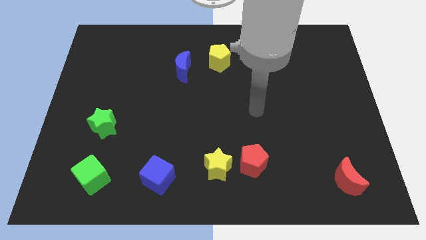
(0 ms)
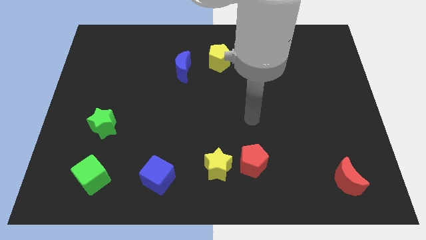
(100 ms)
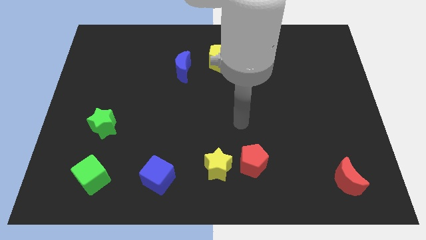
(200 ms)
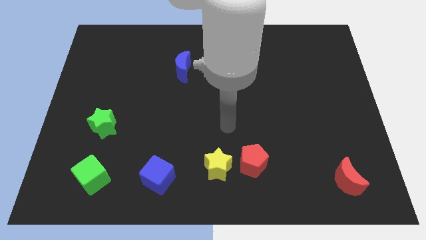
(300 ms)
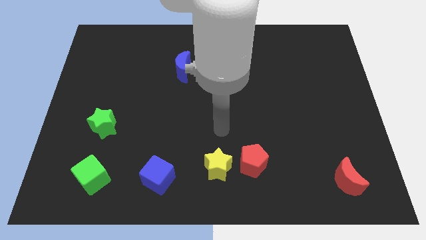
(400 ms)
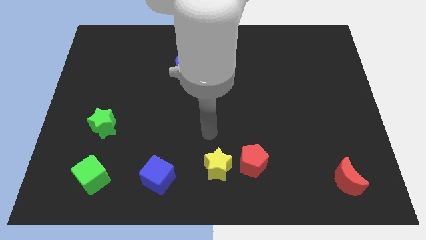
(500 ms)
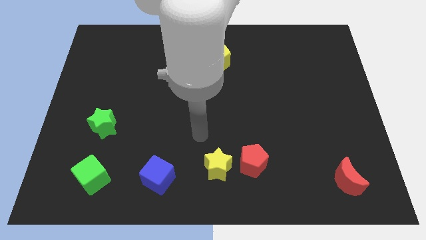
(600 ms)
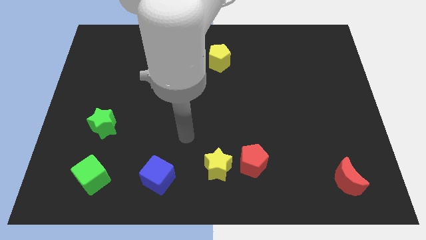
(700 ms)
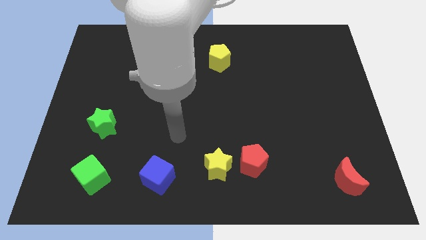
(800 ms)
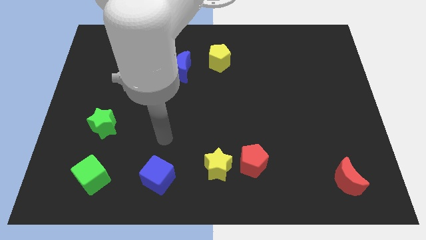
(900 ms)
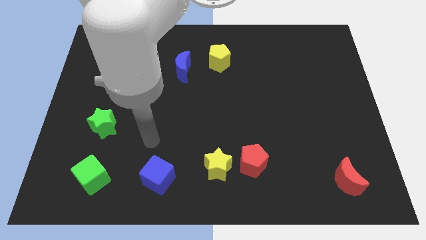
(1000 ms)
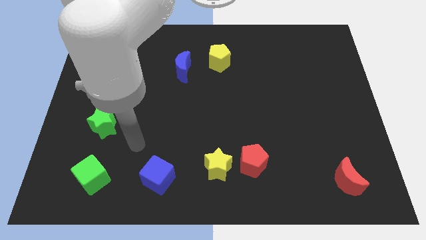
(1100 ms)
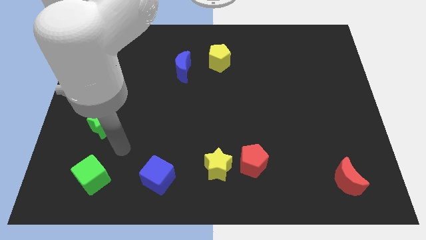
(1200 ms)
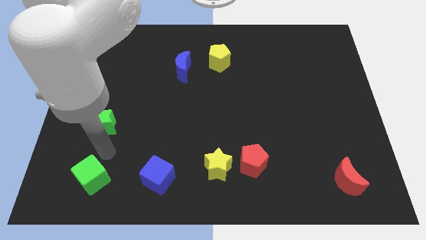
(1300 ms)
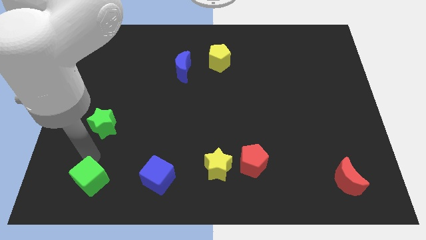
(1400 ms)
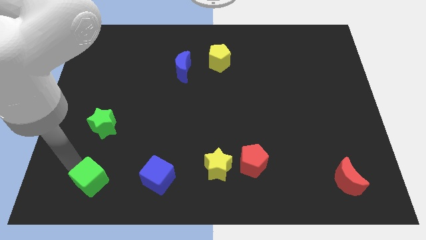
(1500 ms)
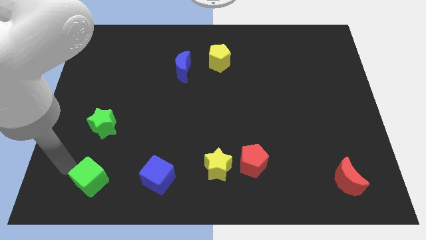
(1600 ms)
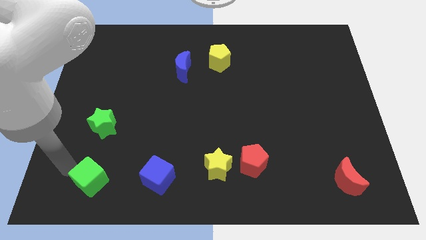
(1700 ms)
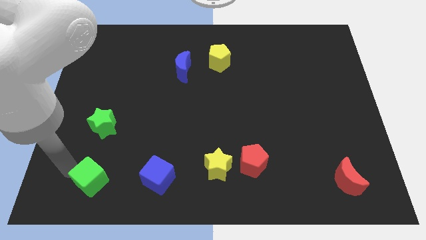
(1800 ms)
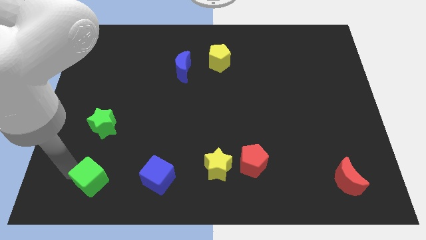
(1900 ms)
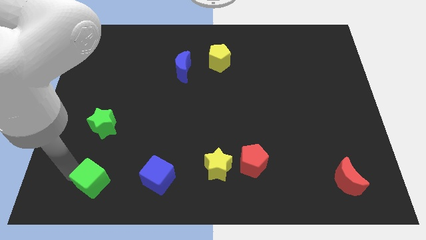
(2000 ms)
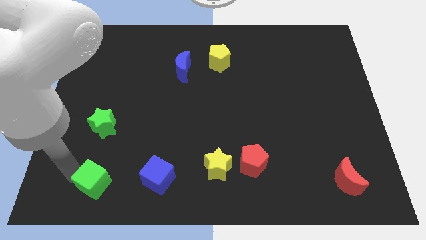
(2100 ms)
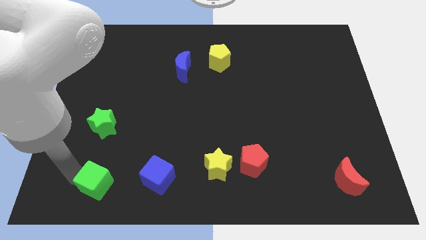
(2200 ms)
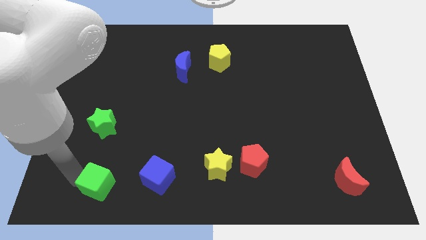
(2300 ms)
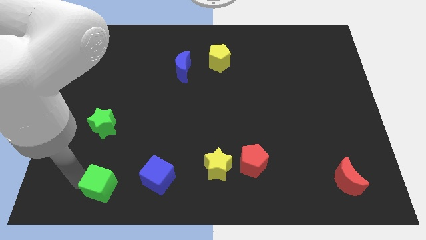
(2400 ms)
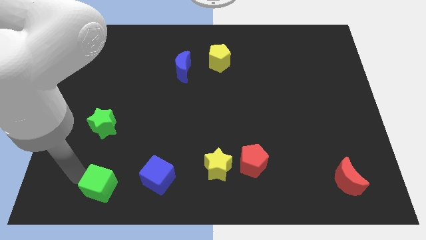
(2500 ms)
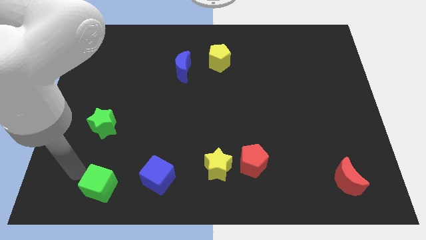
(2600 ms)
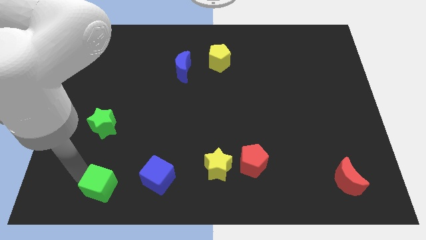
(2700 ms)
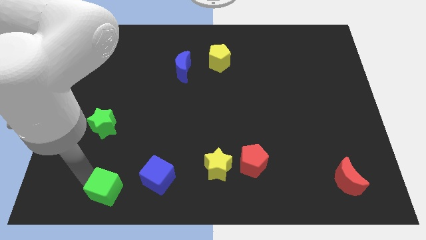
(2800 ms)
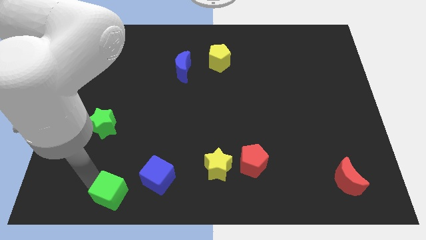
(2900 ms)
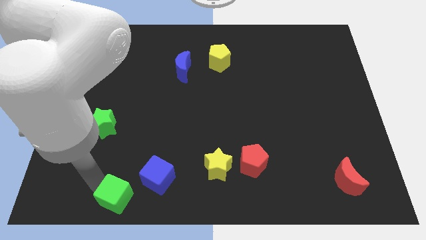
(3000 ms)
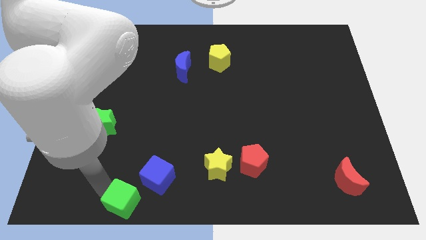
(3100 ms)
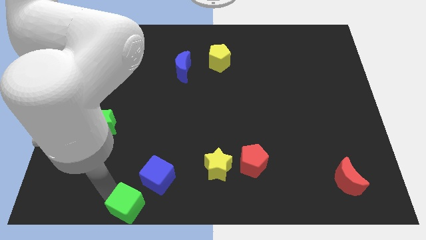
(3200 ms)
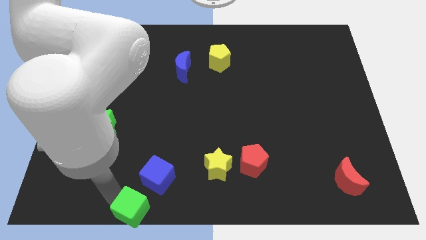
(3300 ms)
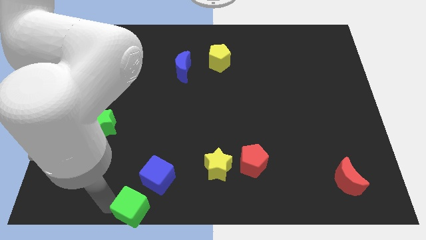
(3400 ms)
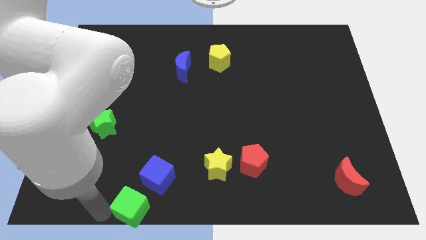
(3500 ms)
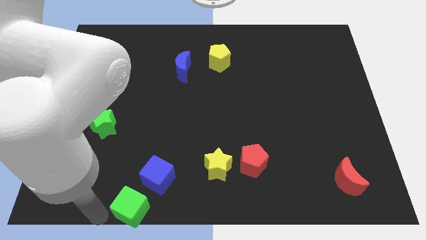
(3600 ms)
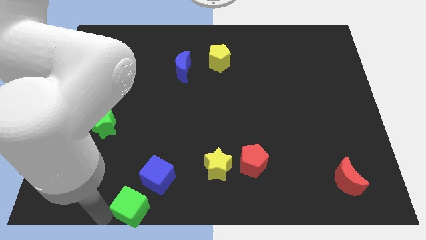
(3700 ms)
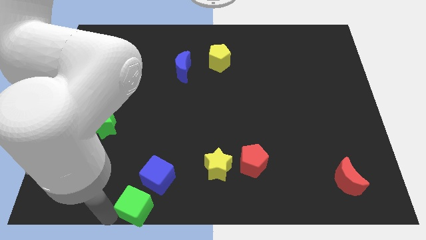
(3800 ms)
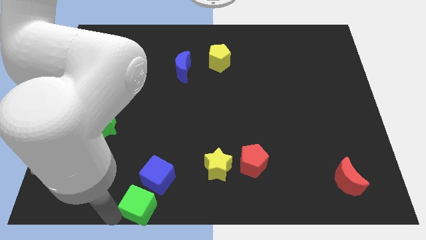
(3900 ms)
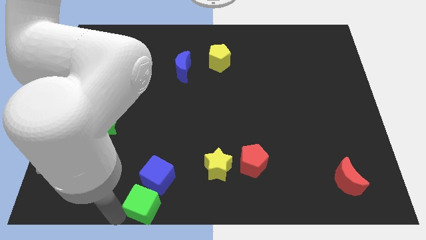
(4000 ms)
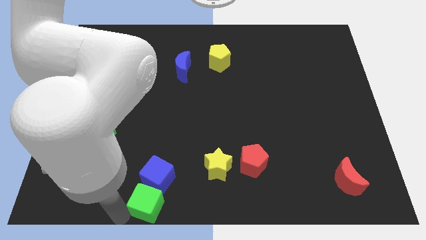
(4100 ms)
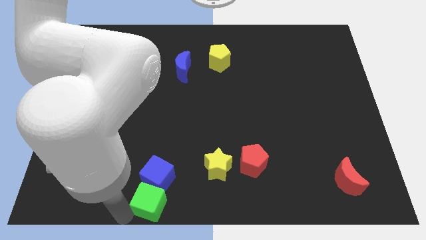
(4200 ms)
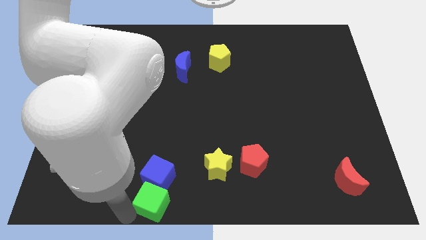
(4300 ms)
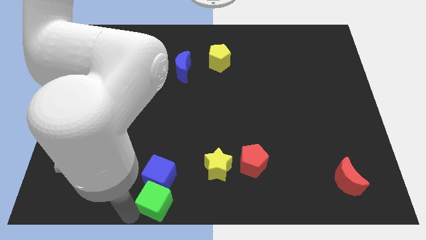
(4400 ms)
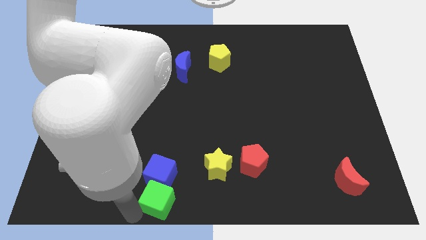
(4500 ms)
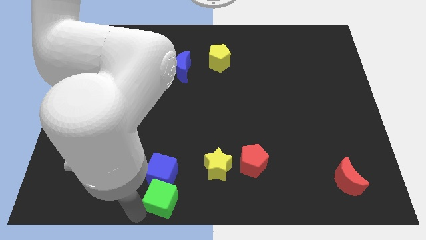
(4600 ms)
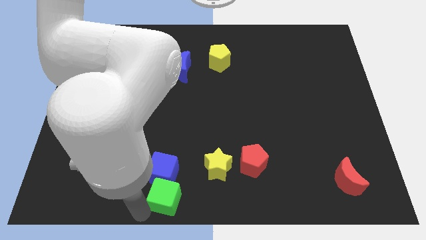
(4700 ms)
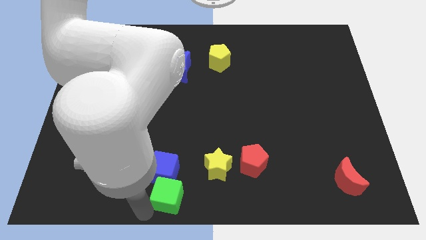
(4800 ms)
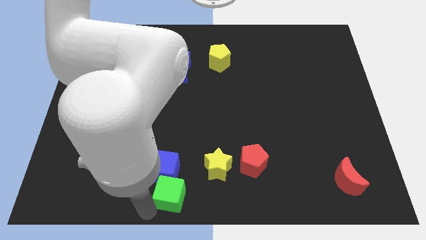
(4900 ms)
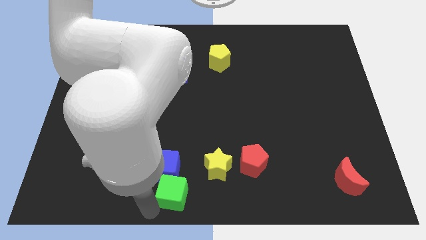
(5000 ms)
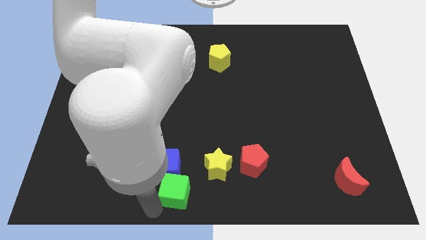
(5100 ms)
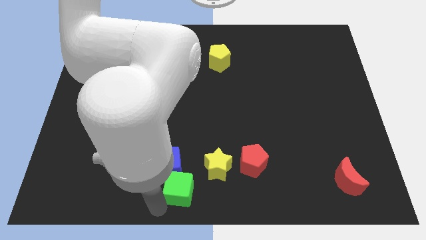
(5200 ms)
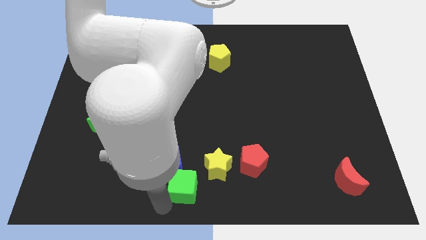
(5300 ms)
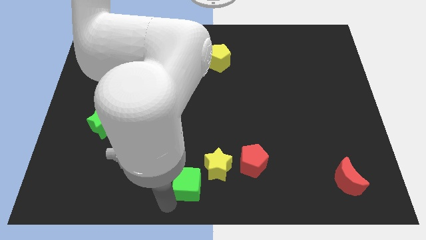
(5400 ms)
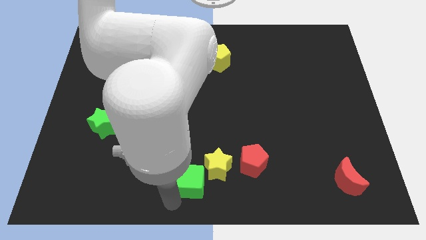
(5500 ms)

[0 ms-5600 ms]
put the green cube just right of the blue cube

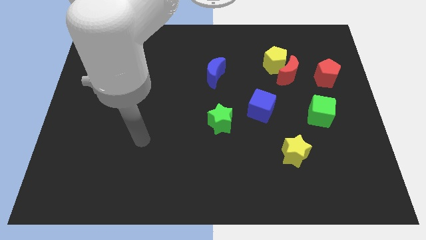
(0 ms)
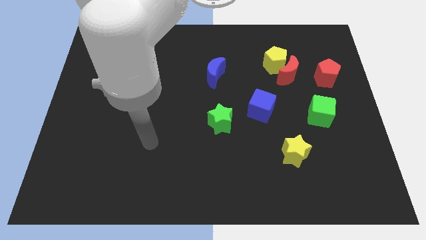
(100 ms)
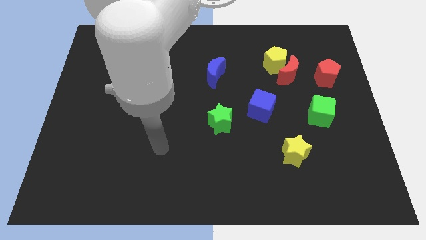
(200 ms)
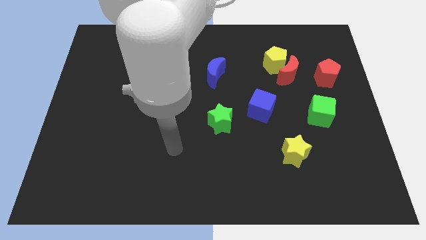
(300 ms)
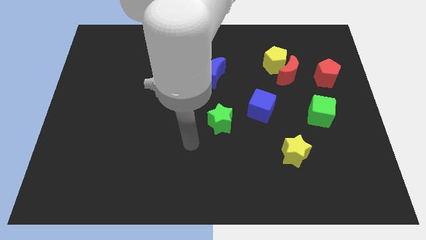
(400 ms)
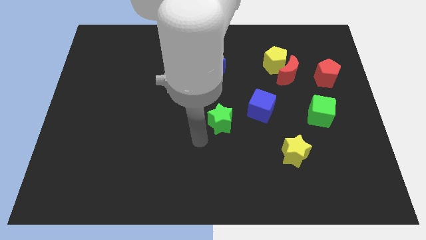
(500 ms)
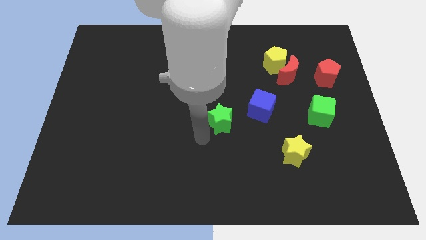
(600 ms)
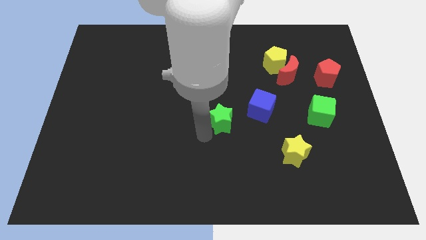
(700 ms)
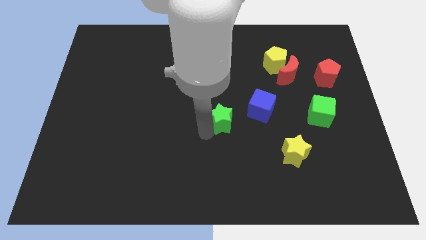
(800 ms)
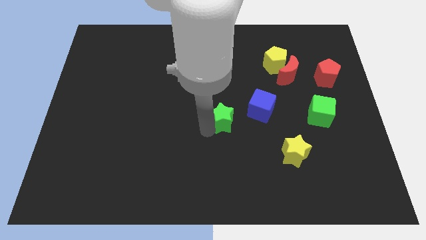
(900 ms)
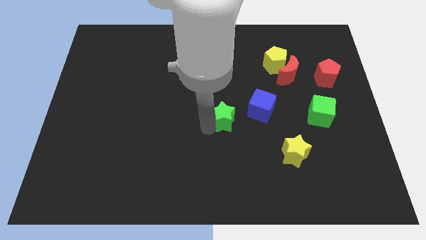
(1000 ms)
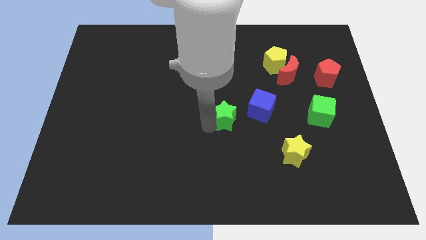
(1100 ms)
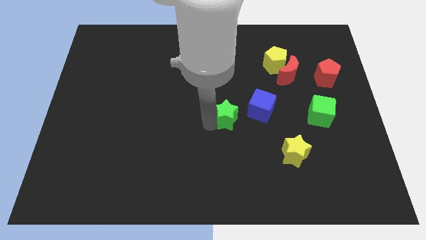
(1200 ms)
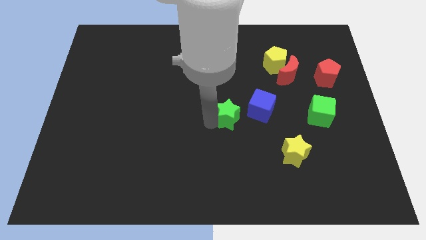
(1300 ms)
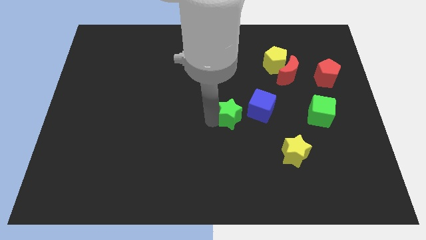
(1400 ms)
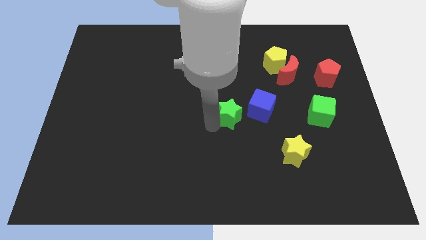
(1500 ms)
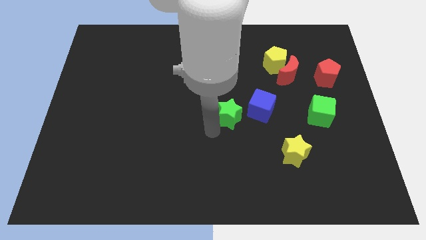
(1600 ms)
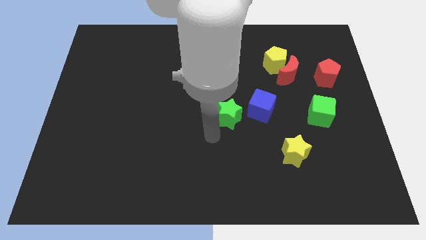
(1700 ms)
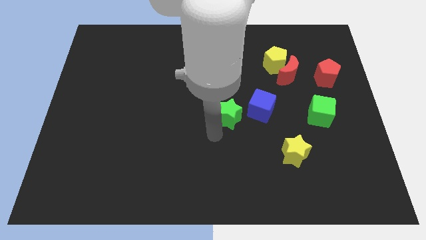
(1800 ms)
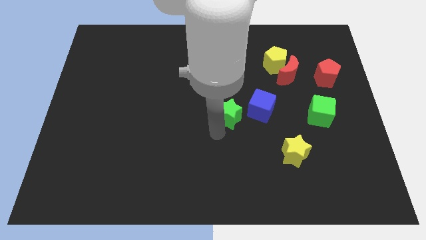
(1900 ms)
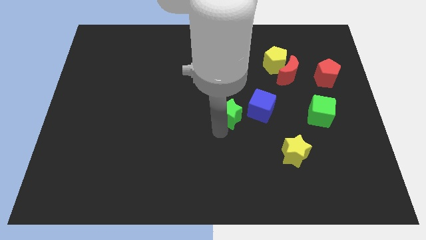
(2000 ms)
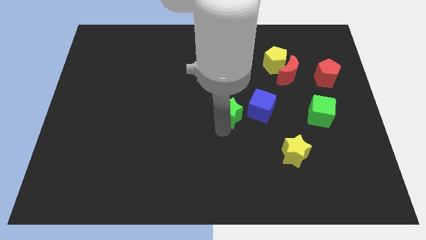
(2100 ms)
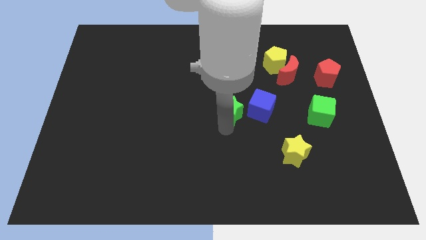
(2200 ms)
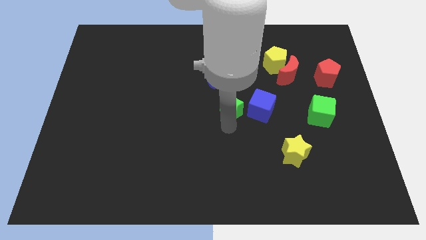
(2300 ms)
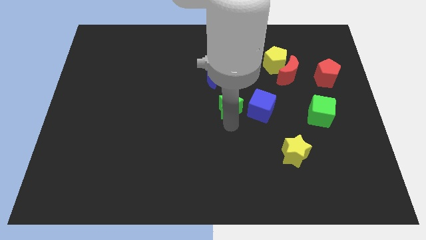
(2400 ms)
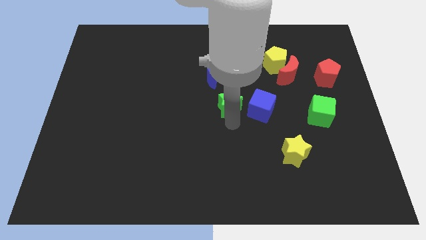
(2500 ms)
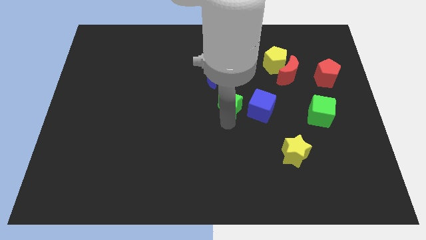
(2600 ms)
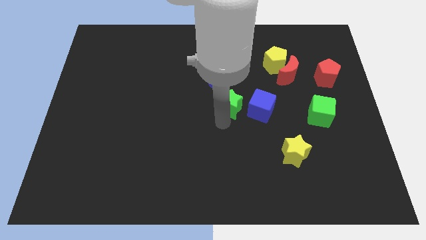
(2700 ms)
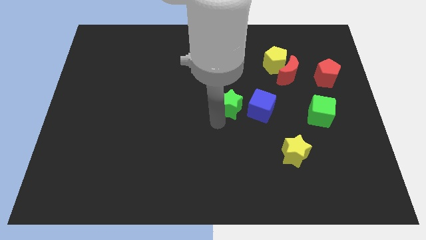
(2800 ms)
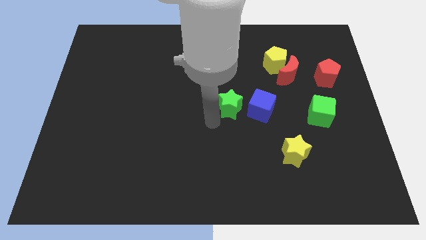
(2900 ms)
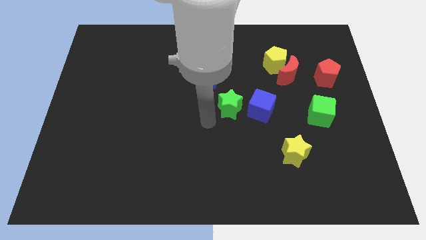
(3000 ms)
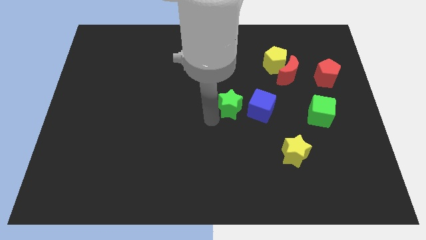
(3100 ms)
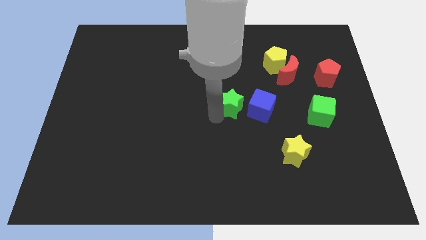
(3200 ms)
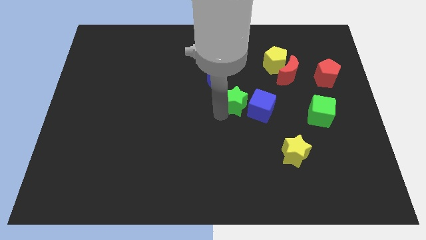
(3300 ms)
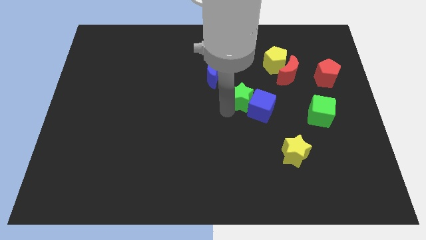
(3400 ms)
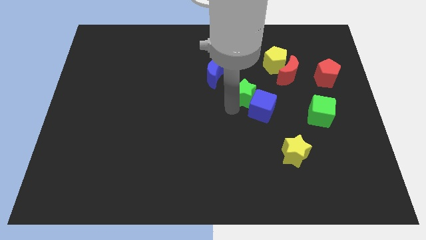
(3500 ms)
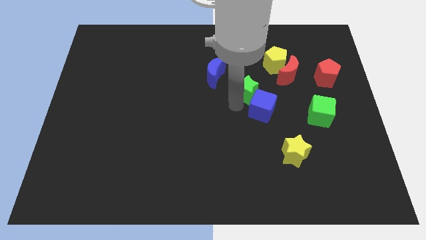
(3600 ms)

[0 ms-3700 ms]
slide the green star diagonally down and to the left of the yellow pentagon
